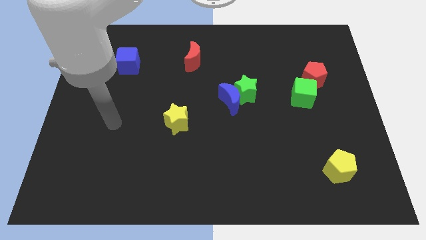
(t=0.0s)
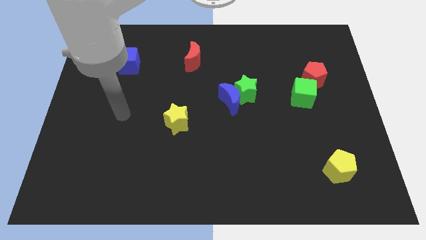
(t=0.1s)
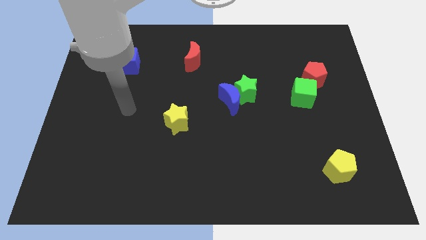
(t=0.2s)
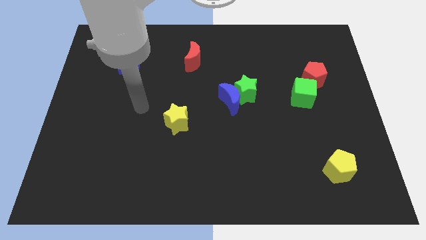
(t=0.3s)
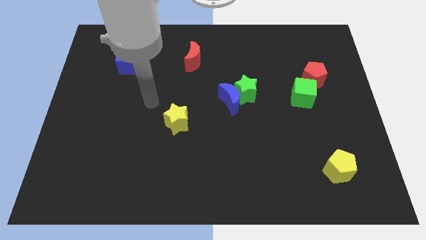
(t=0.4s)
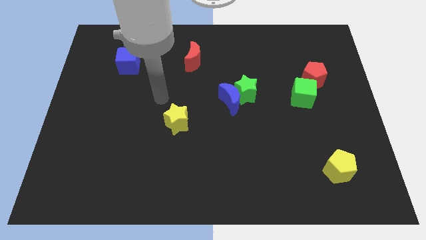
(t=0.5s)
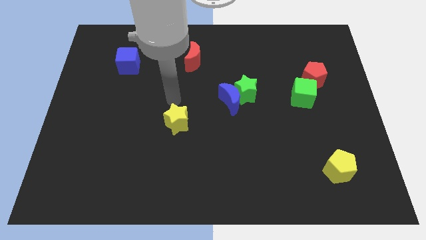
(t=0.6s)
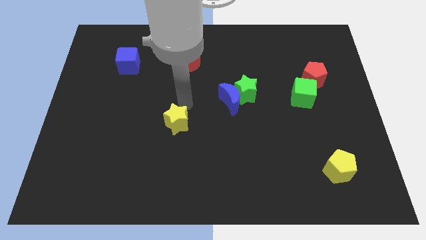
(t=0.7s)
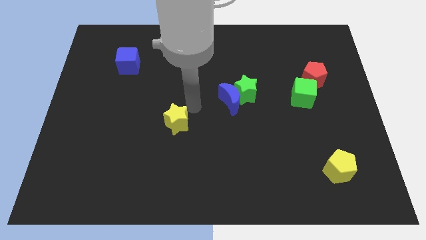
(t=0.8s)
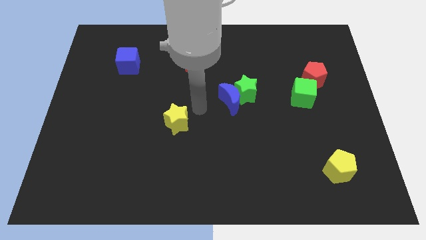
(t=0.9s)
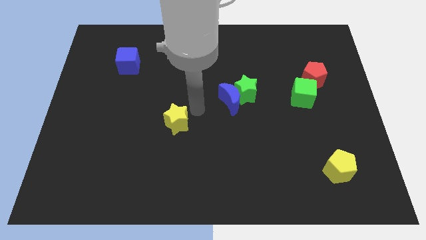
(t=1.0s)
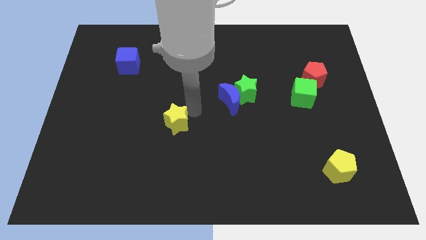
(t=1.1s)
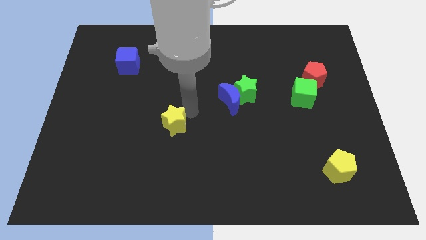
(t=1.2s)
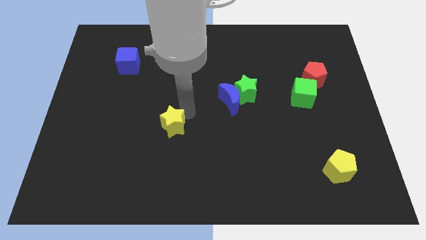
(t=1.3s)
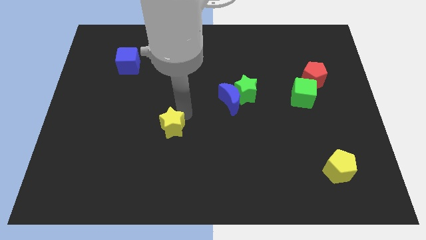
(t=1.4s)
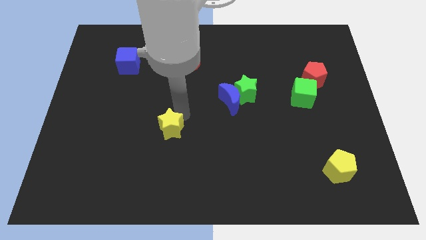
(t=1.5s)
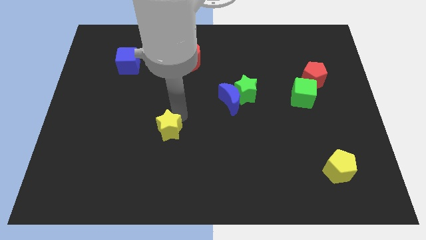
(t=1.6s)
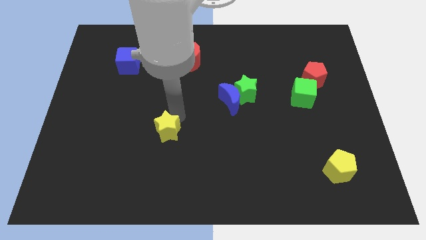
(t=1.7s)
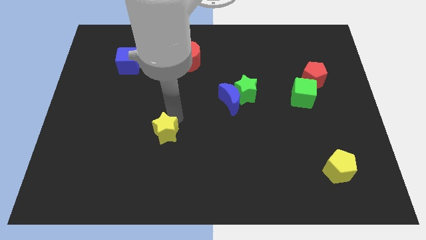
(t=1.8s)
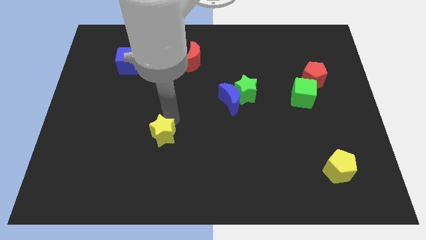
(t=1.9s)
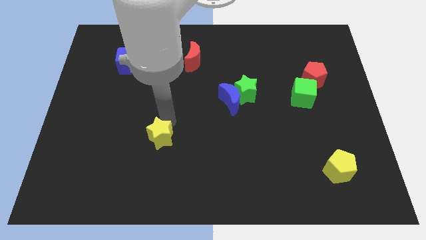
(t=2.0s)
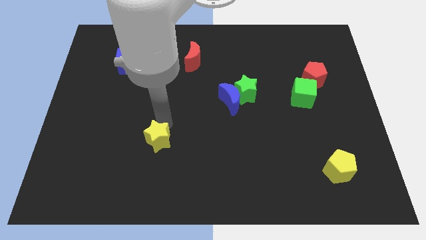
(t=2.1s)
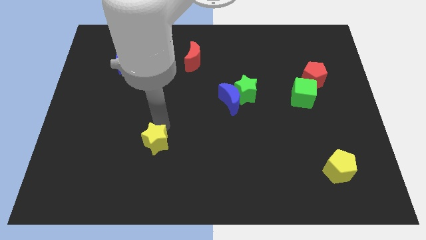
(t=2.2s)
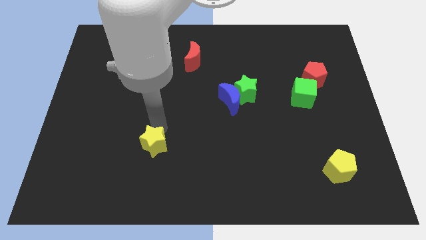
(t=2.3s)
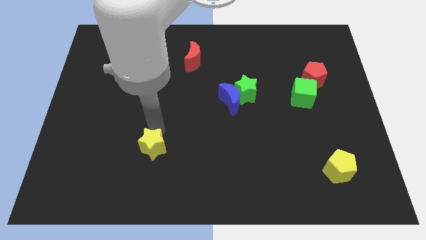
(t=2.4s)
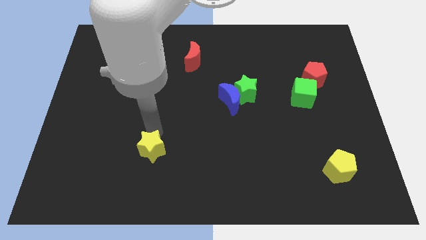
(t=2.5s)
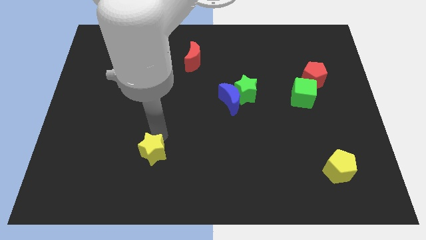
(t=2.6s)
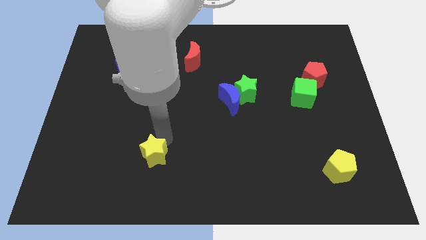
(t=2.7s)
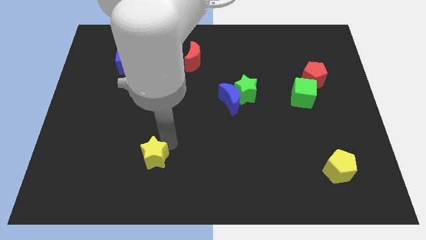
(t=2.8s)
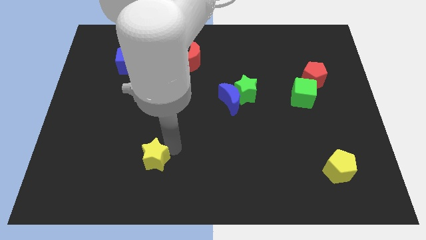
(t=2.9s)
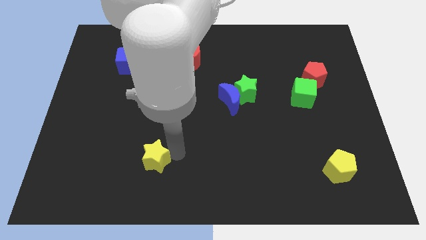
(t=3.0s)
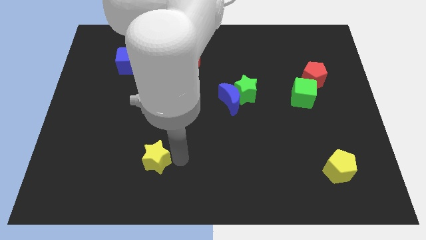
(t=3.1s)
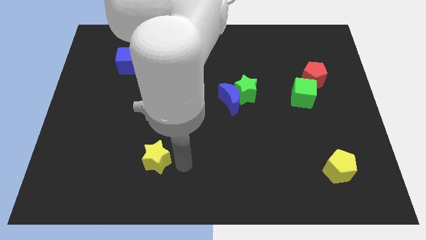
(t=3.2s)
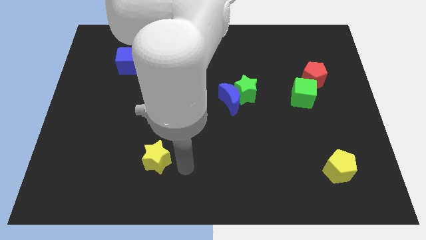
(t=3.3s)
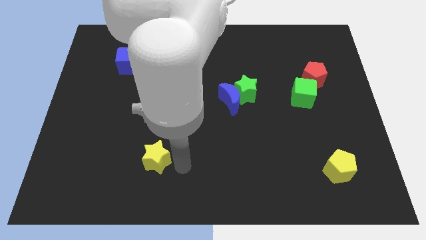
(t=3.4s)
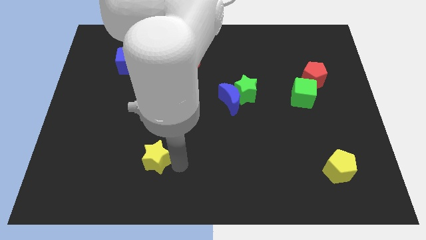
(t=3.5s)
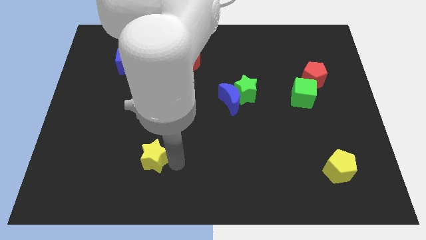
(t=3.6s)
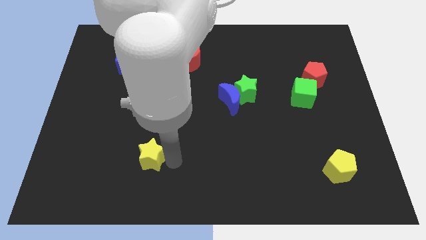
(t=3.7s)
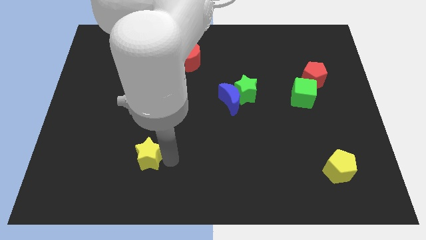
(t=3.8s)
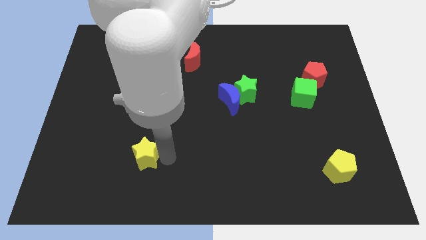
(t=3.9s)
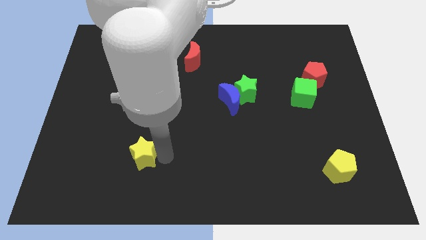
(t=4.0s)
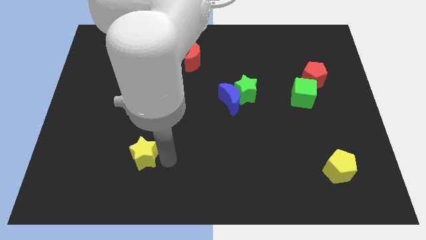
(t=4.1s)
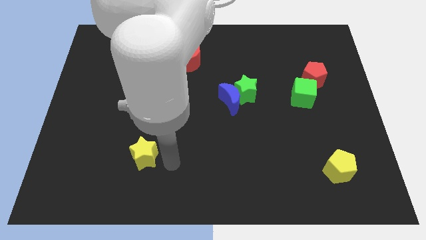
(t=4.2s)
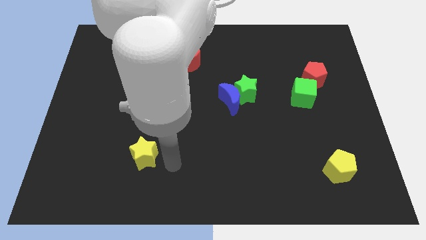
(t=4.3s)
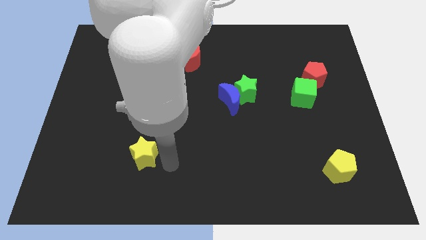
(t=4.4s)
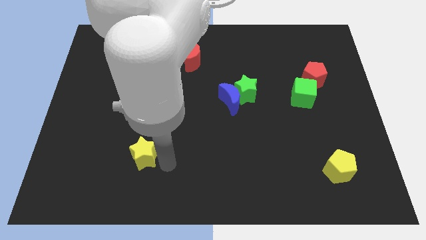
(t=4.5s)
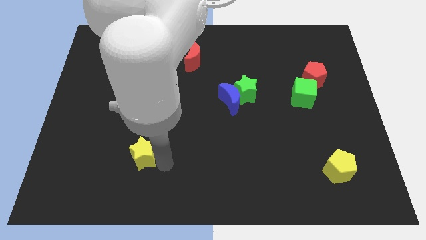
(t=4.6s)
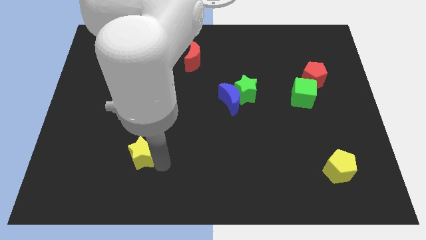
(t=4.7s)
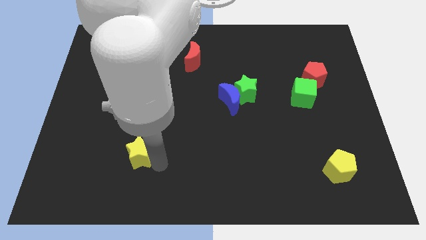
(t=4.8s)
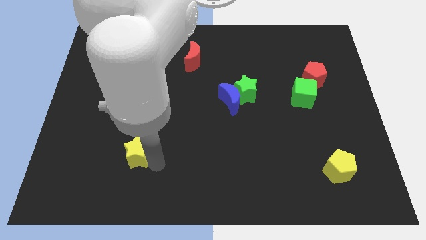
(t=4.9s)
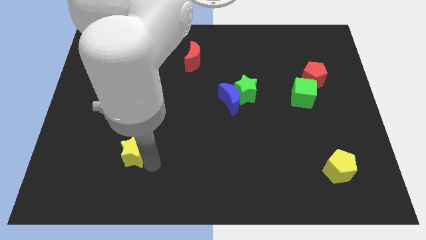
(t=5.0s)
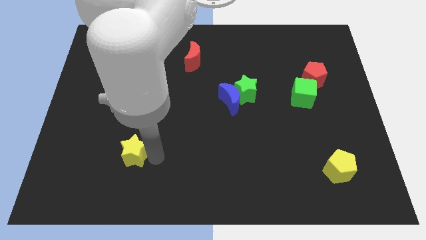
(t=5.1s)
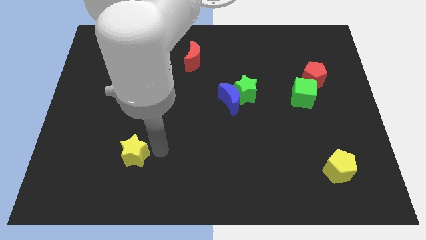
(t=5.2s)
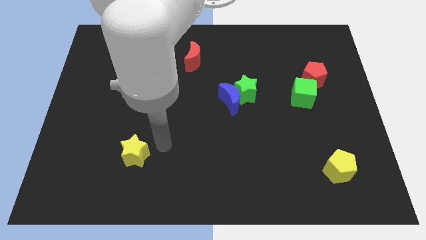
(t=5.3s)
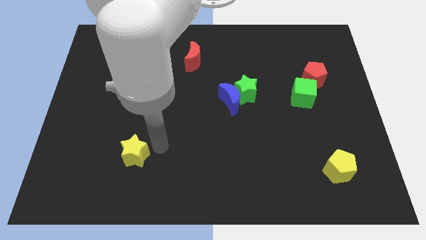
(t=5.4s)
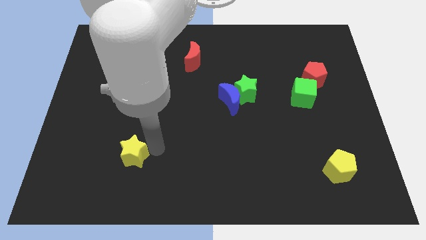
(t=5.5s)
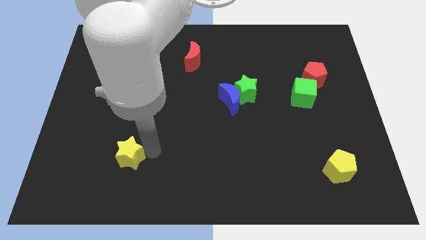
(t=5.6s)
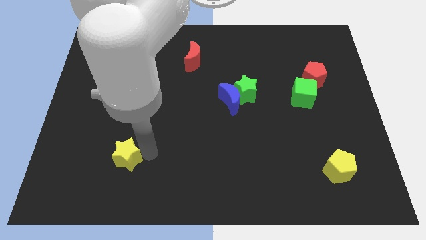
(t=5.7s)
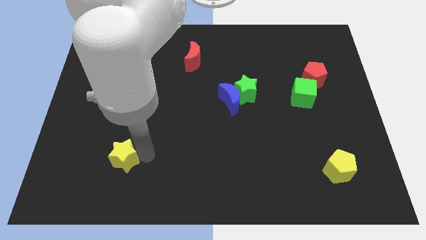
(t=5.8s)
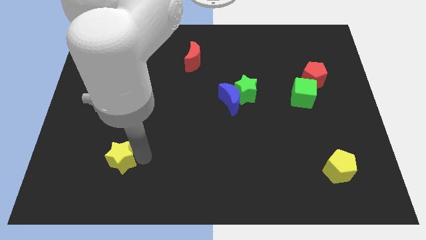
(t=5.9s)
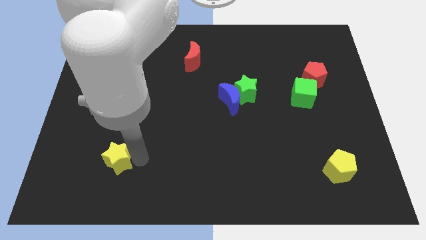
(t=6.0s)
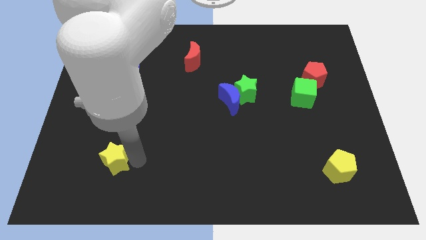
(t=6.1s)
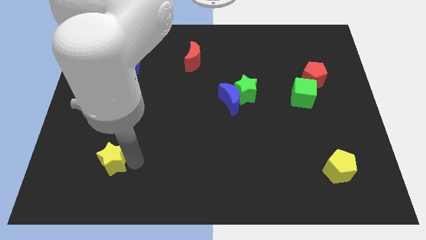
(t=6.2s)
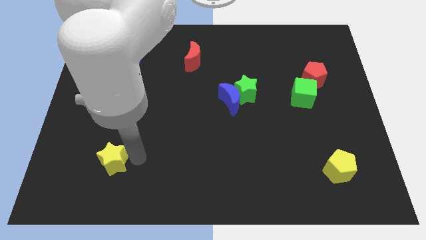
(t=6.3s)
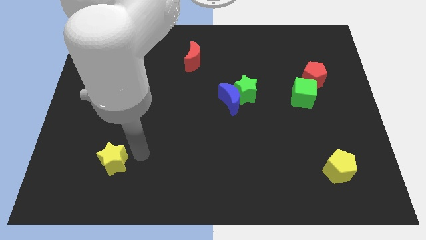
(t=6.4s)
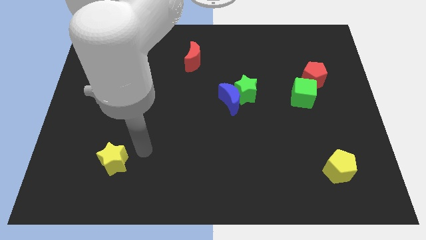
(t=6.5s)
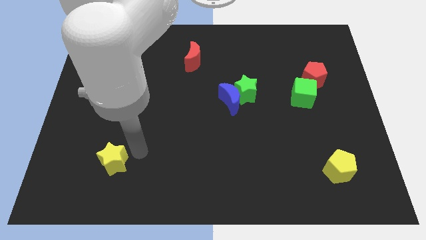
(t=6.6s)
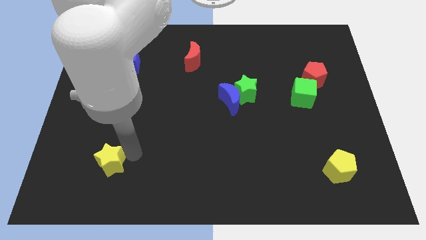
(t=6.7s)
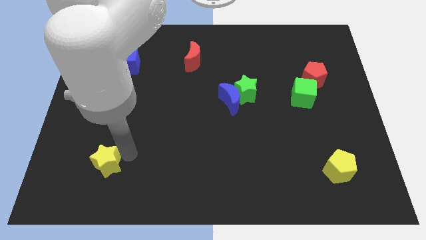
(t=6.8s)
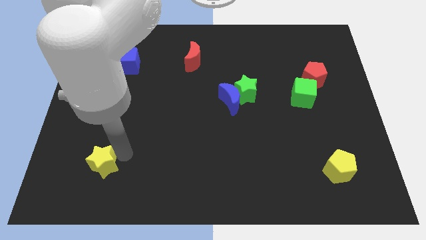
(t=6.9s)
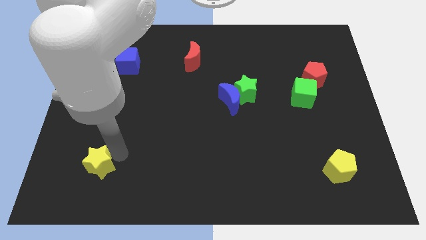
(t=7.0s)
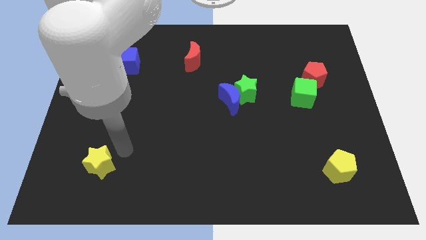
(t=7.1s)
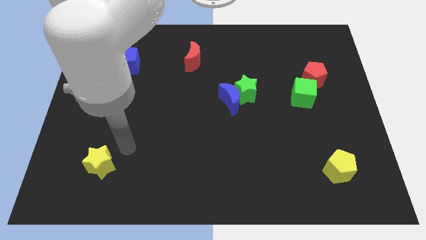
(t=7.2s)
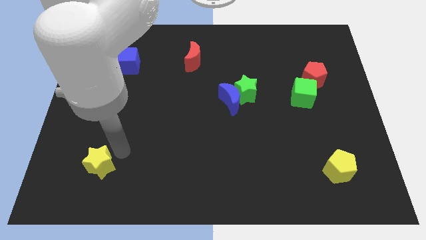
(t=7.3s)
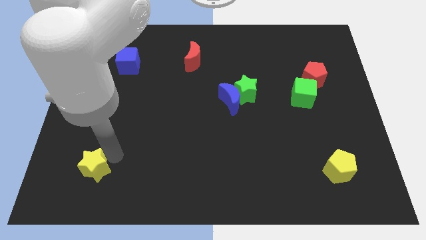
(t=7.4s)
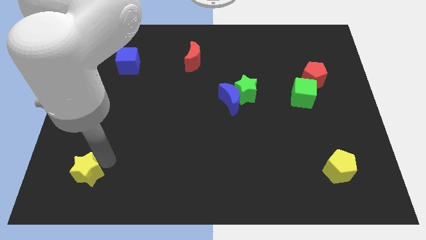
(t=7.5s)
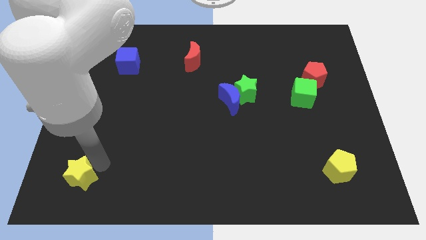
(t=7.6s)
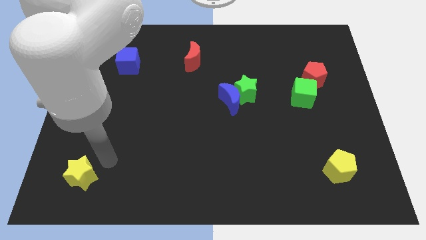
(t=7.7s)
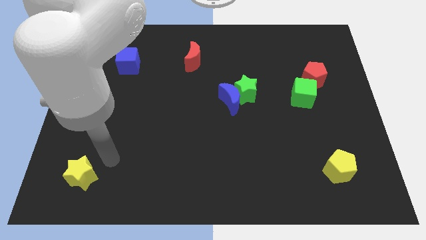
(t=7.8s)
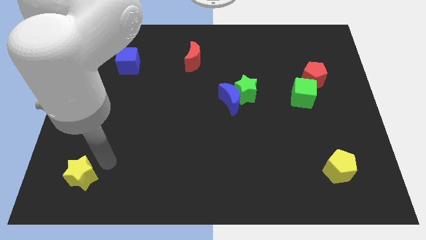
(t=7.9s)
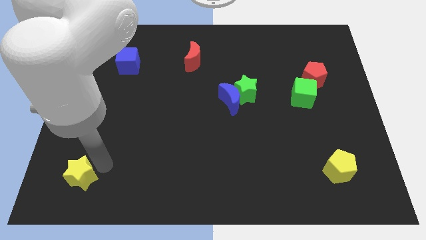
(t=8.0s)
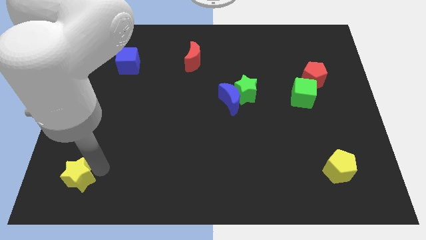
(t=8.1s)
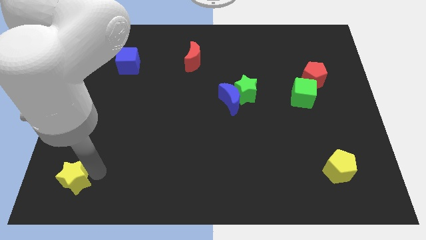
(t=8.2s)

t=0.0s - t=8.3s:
push the yellow star to the bottom left corner
